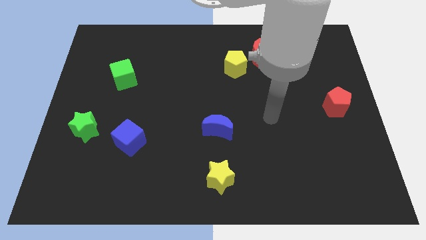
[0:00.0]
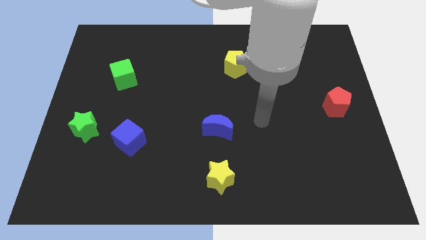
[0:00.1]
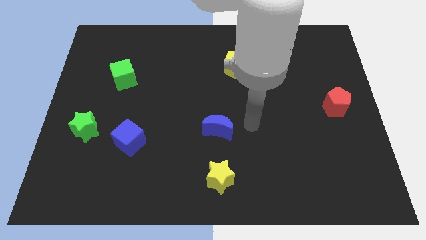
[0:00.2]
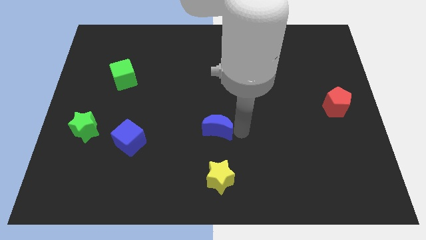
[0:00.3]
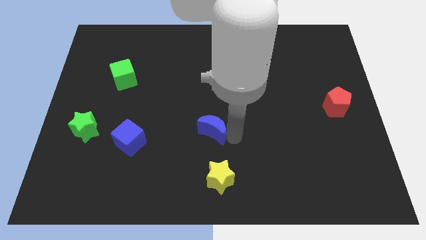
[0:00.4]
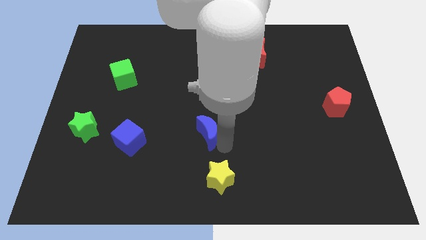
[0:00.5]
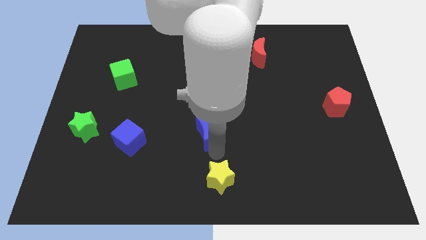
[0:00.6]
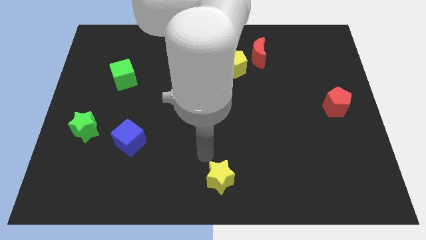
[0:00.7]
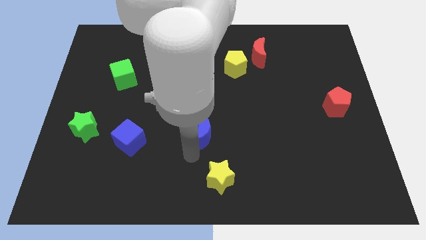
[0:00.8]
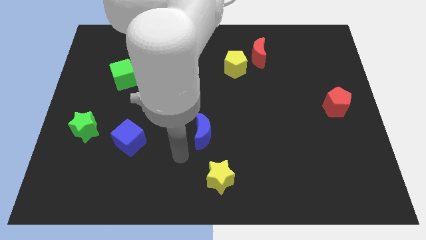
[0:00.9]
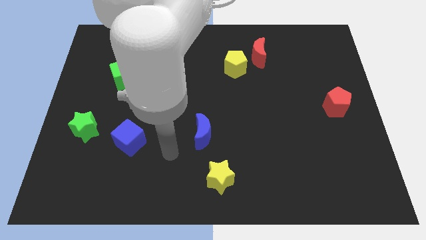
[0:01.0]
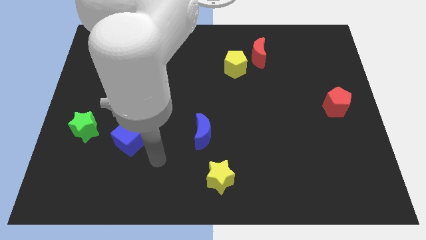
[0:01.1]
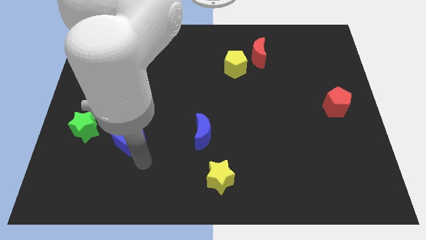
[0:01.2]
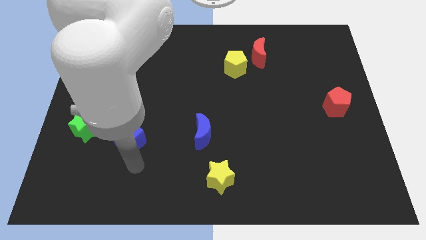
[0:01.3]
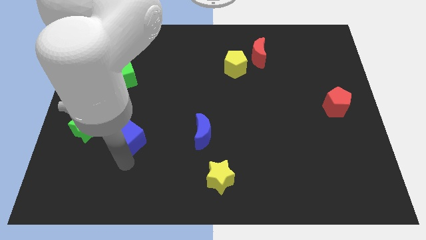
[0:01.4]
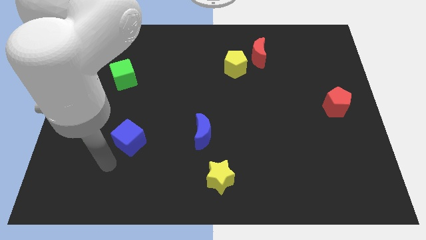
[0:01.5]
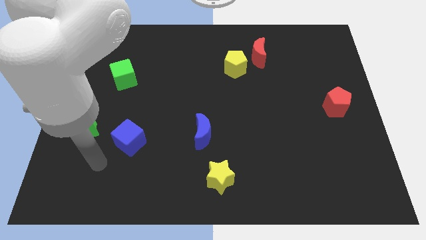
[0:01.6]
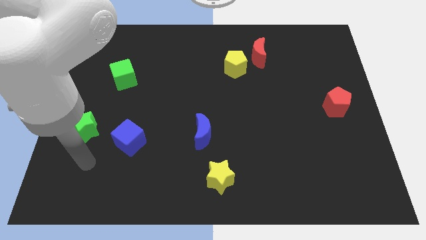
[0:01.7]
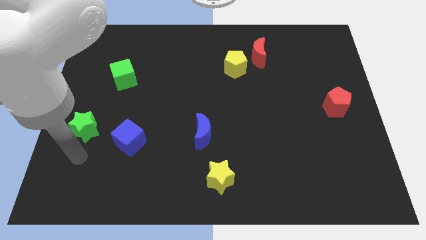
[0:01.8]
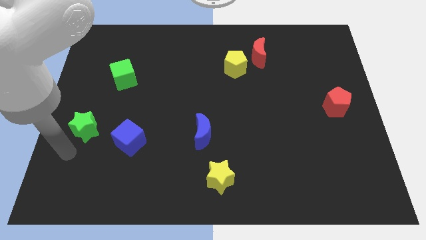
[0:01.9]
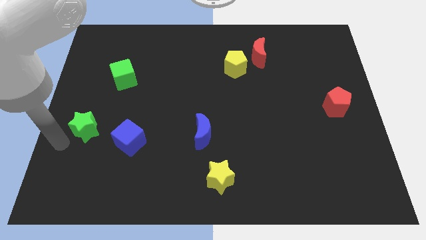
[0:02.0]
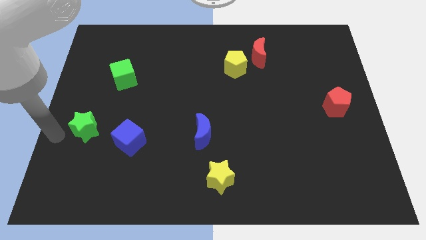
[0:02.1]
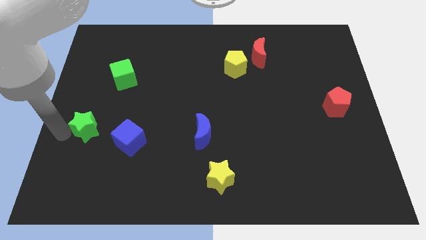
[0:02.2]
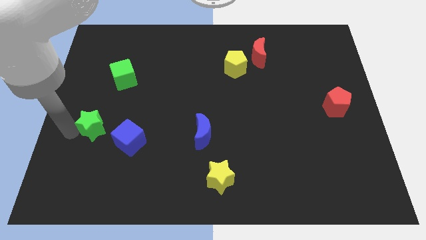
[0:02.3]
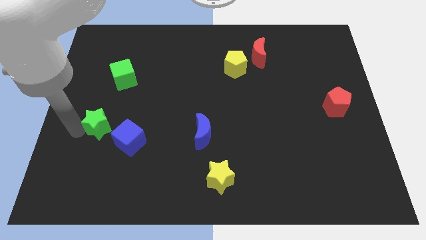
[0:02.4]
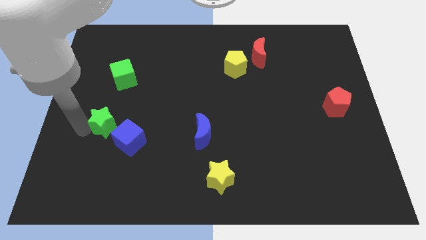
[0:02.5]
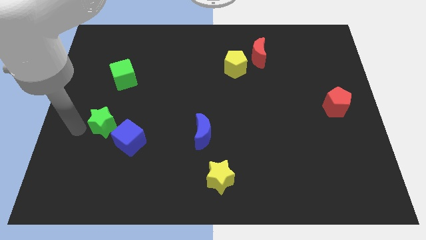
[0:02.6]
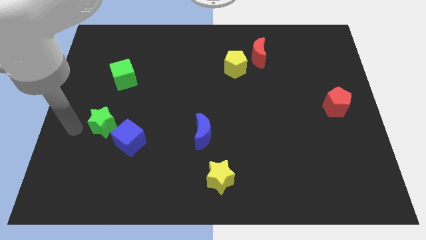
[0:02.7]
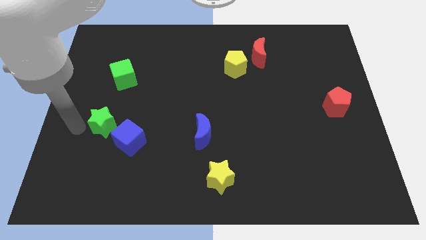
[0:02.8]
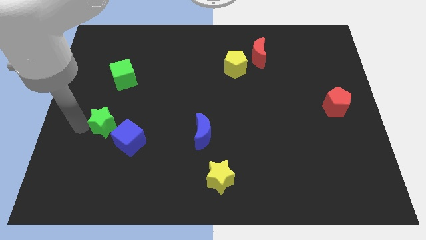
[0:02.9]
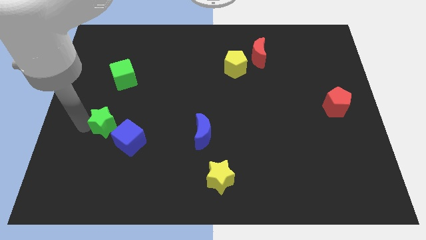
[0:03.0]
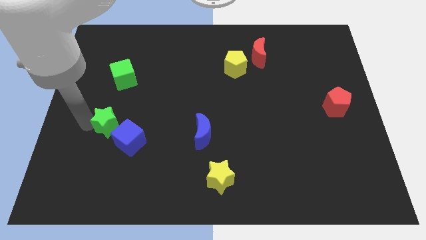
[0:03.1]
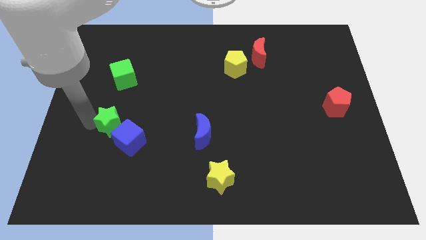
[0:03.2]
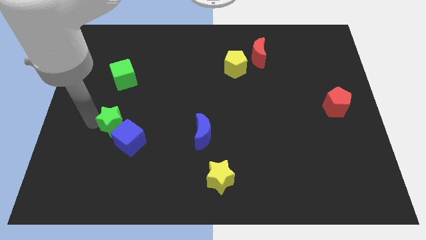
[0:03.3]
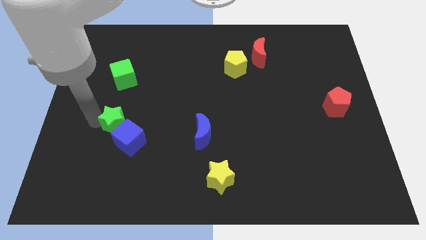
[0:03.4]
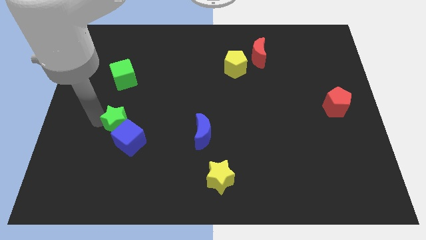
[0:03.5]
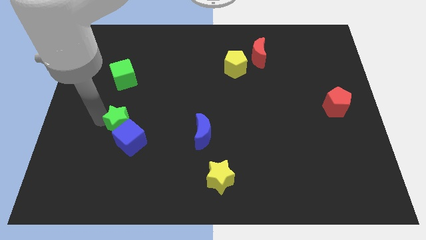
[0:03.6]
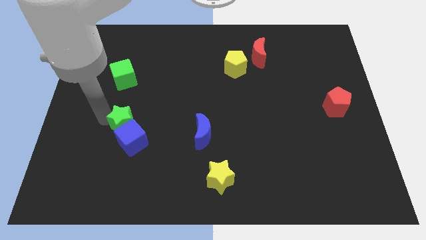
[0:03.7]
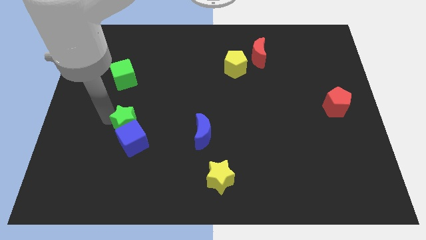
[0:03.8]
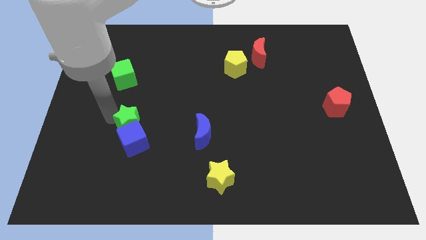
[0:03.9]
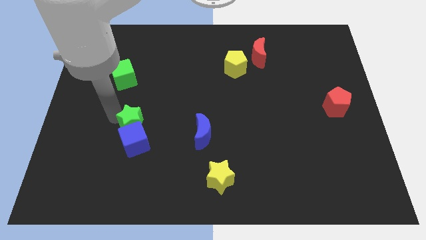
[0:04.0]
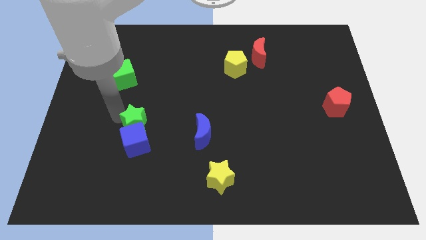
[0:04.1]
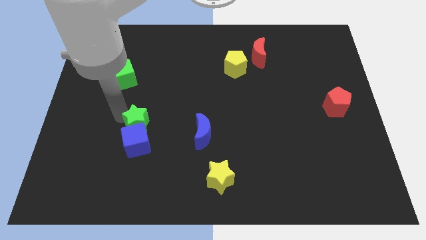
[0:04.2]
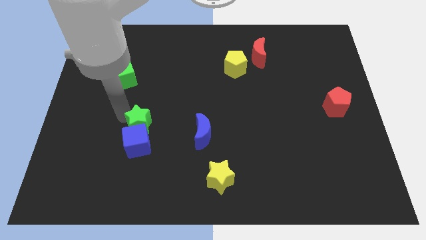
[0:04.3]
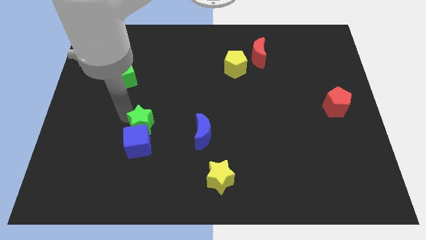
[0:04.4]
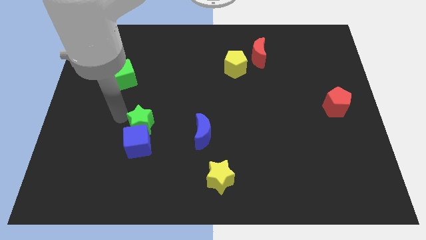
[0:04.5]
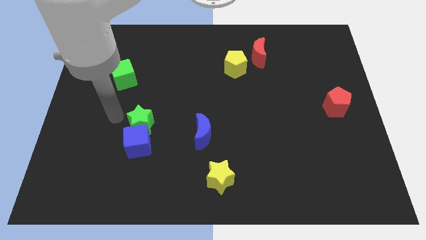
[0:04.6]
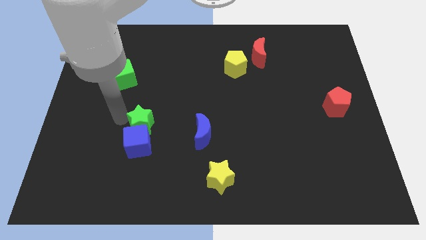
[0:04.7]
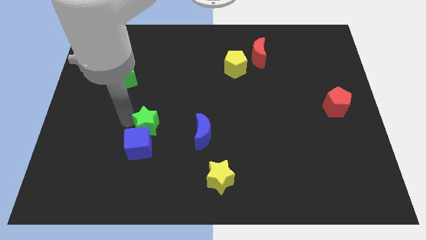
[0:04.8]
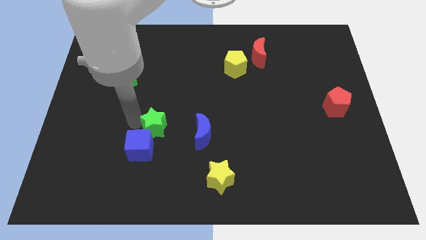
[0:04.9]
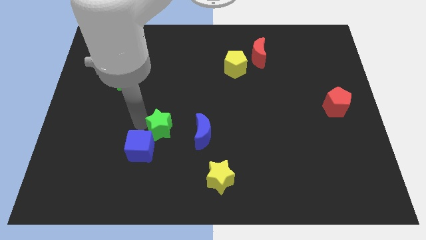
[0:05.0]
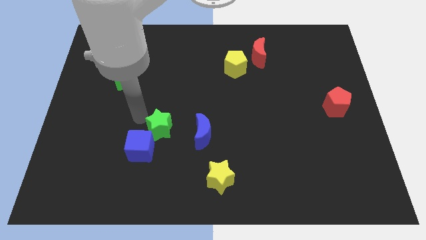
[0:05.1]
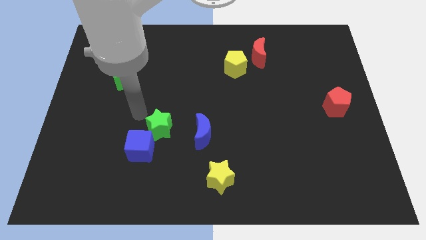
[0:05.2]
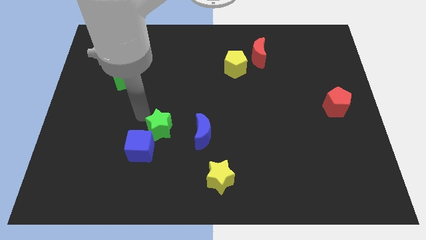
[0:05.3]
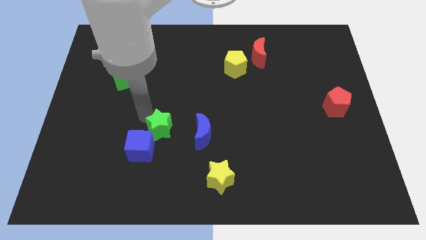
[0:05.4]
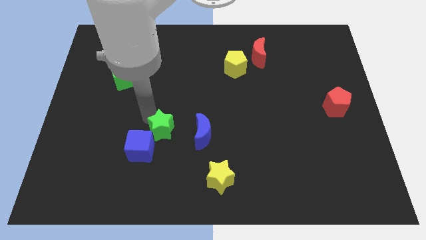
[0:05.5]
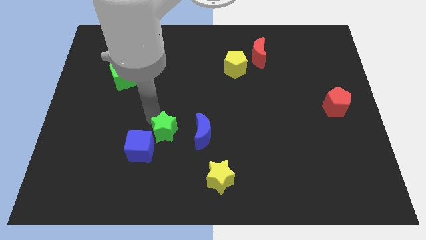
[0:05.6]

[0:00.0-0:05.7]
put the green star to the right side of the blue cube

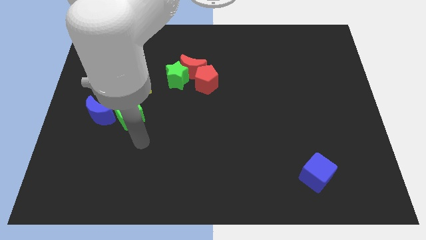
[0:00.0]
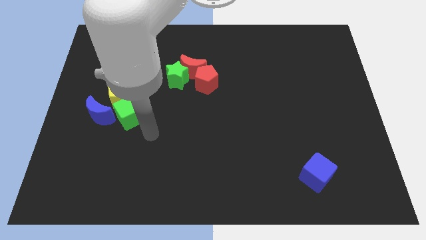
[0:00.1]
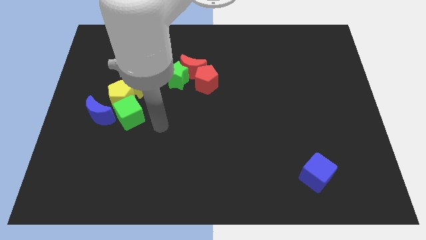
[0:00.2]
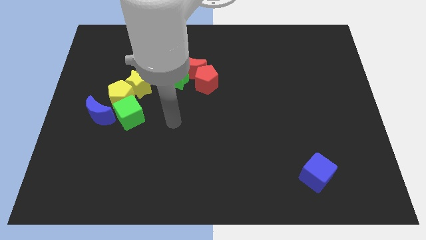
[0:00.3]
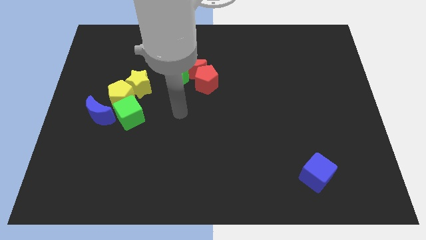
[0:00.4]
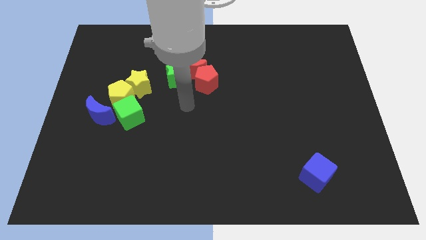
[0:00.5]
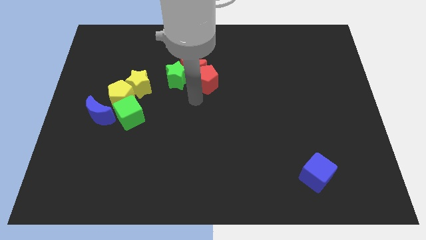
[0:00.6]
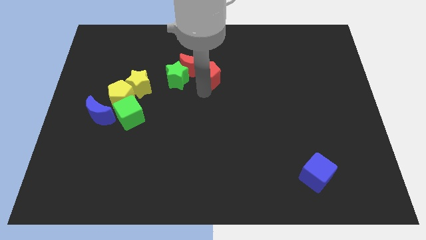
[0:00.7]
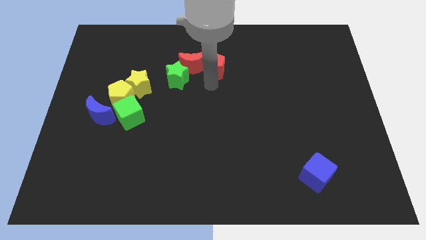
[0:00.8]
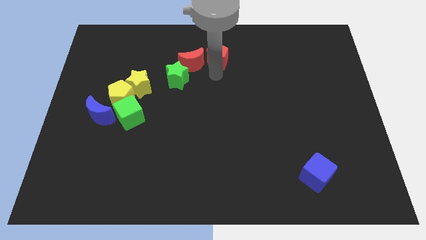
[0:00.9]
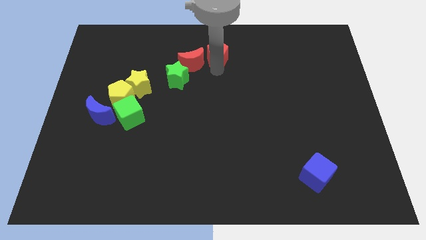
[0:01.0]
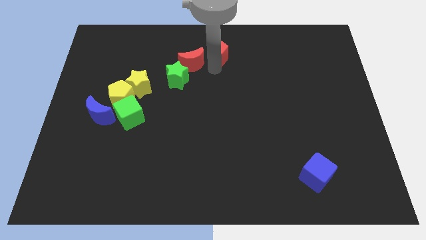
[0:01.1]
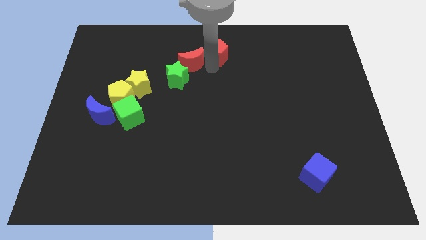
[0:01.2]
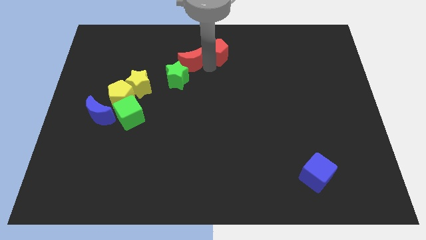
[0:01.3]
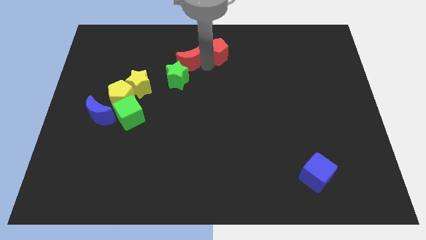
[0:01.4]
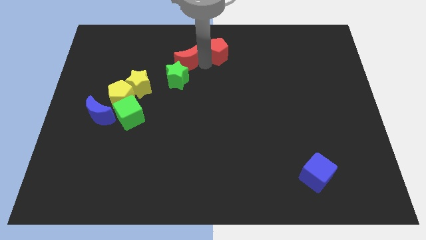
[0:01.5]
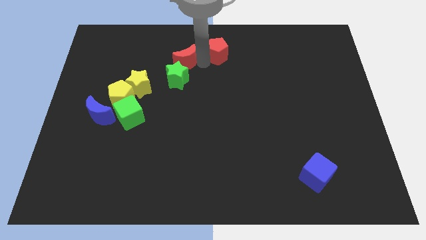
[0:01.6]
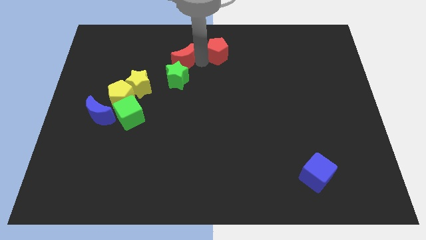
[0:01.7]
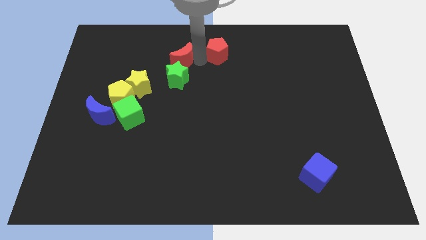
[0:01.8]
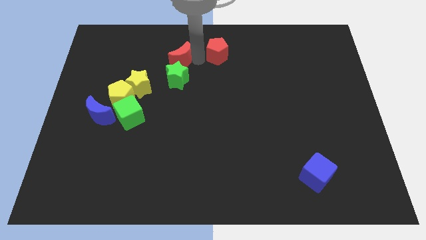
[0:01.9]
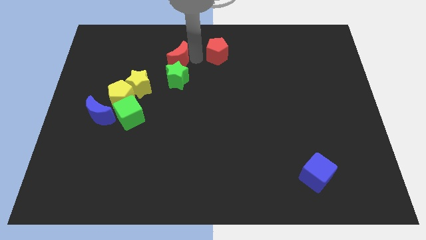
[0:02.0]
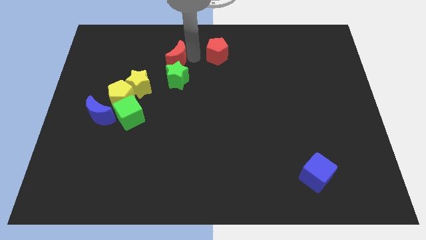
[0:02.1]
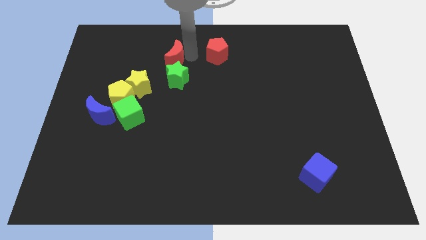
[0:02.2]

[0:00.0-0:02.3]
slide the red moon to the top right of the yellow star

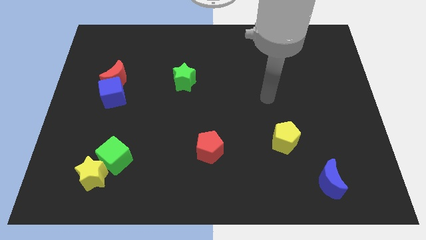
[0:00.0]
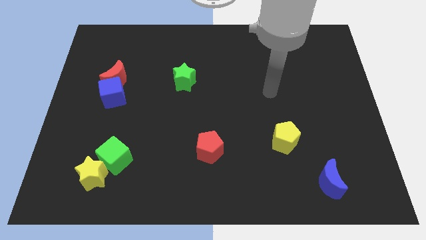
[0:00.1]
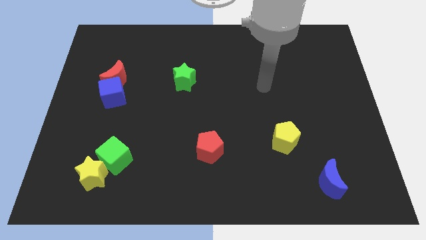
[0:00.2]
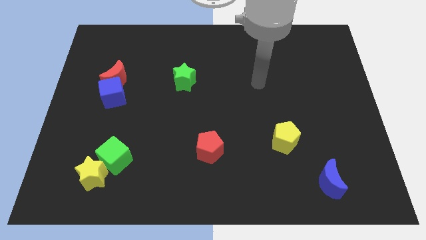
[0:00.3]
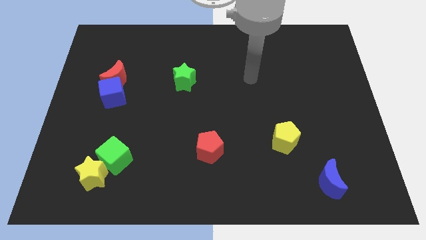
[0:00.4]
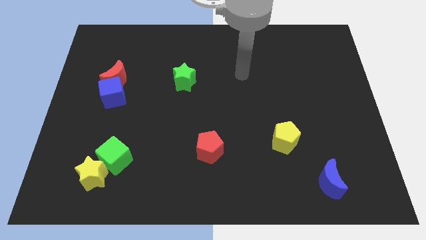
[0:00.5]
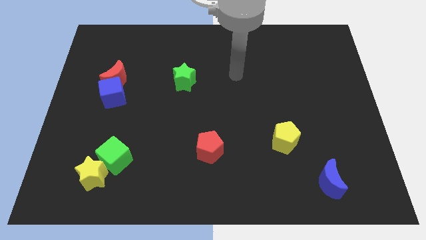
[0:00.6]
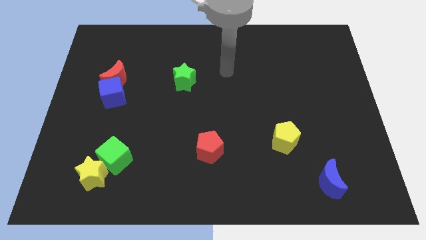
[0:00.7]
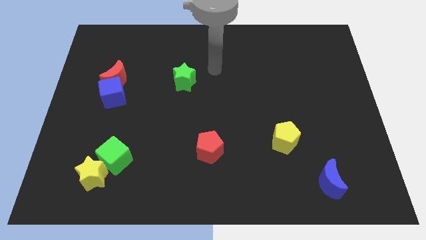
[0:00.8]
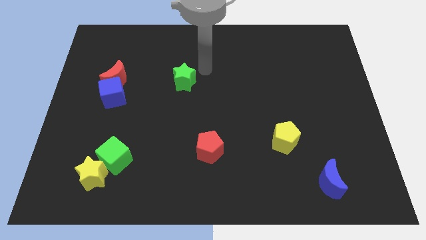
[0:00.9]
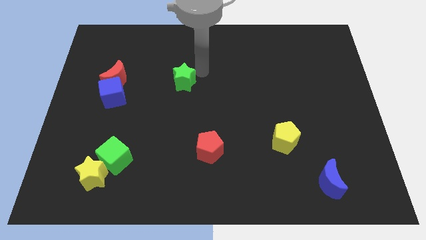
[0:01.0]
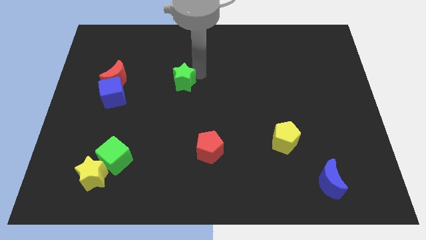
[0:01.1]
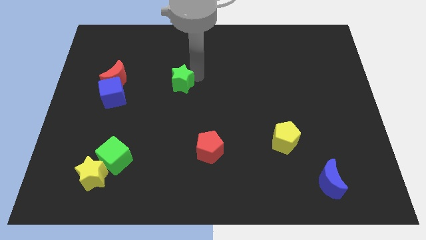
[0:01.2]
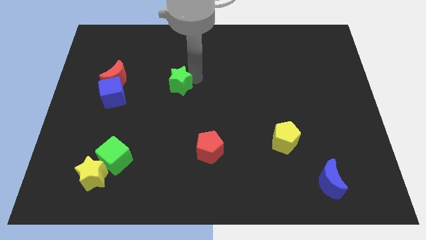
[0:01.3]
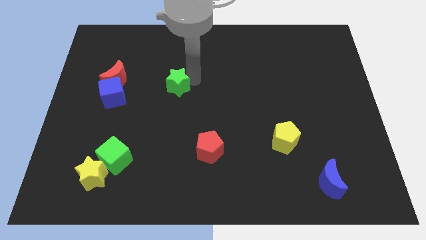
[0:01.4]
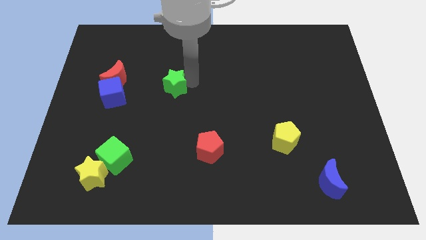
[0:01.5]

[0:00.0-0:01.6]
push the green star to the right side of the blue cube
